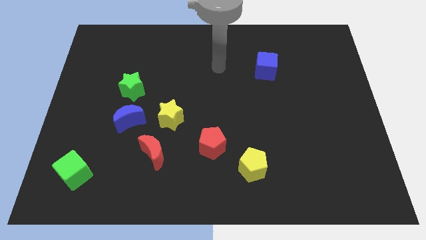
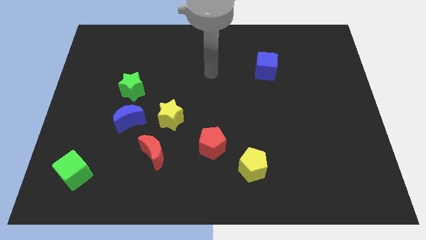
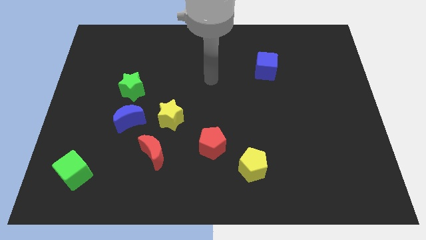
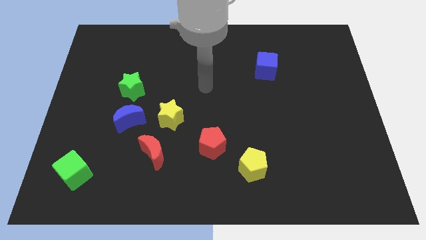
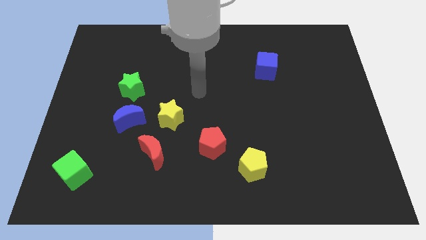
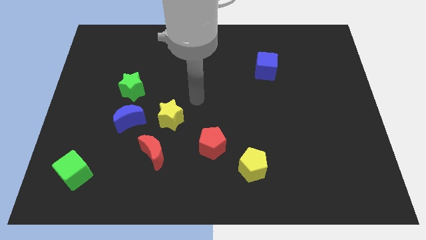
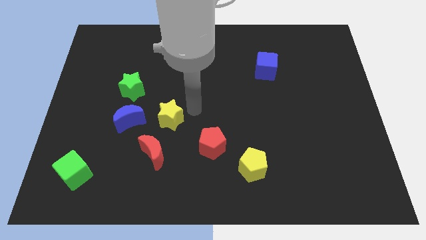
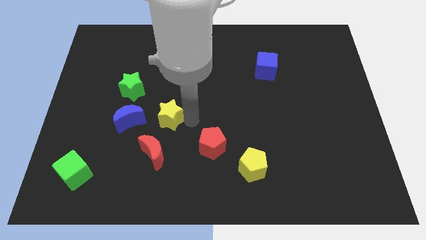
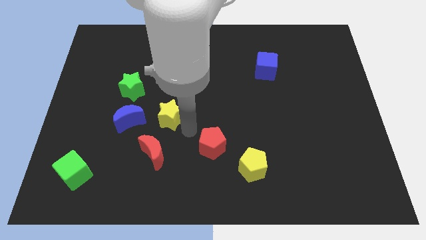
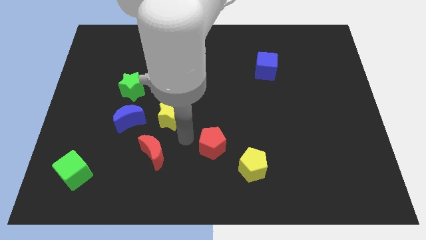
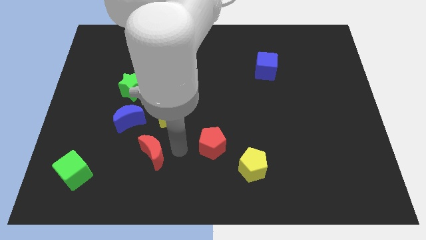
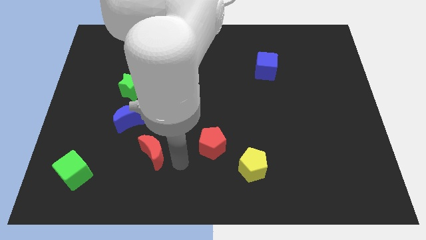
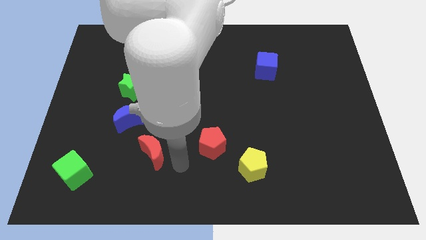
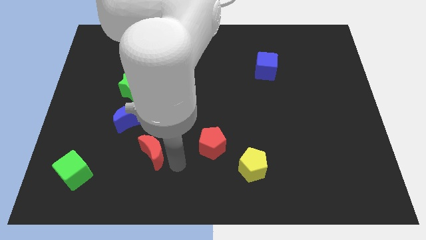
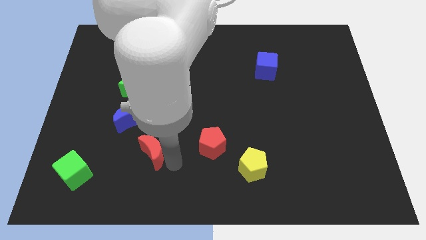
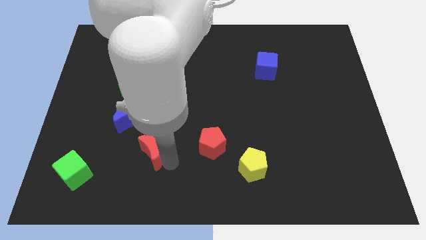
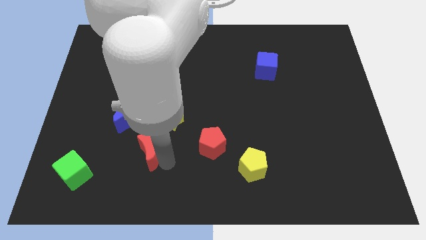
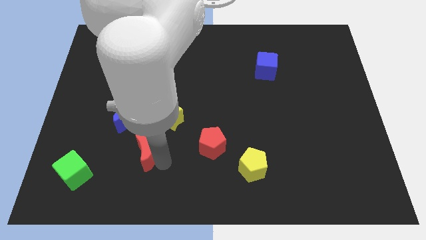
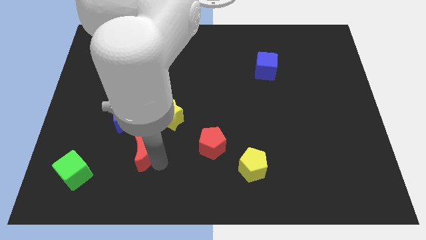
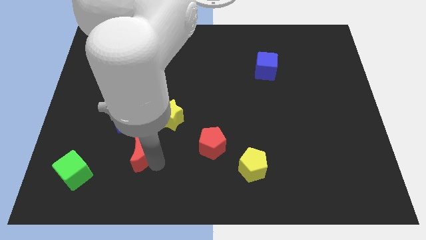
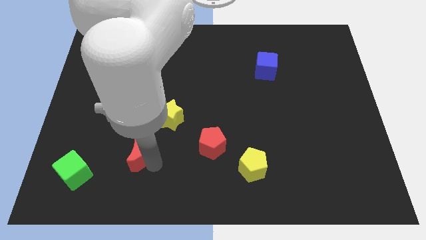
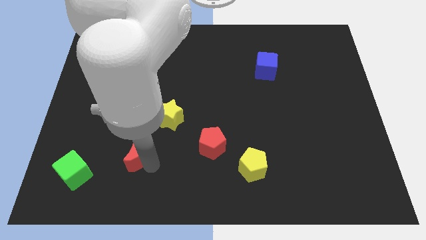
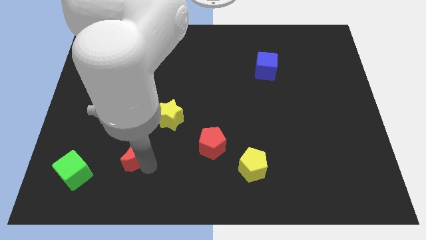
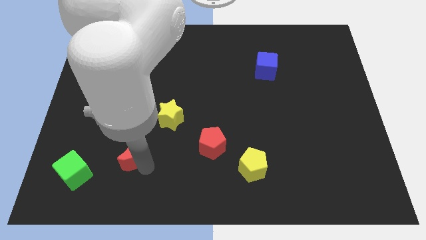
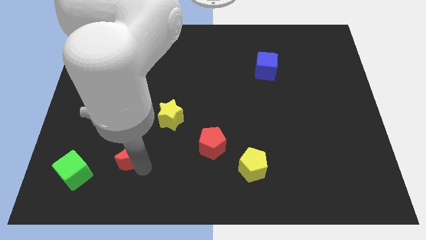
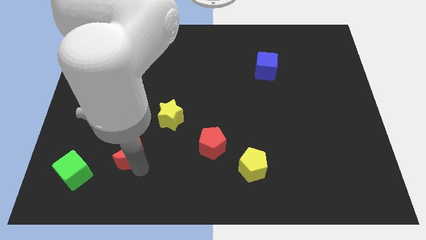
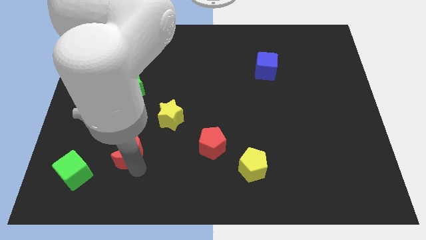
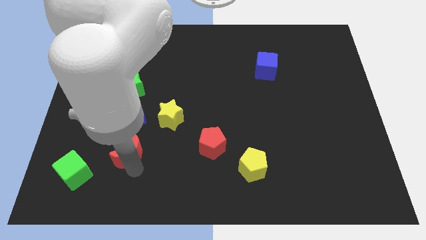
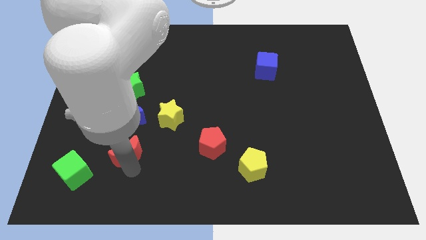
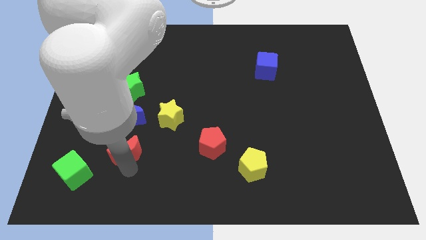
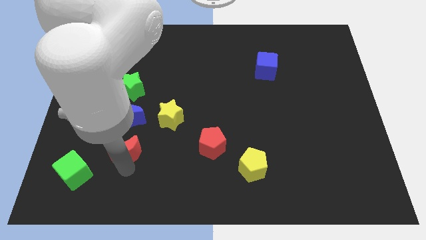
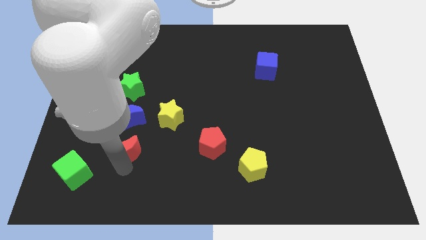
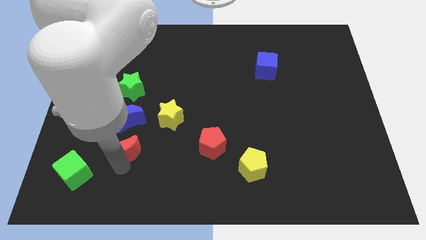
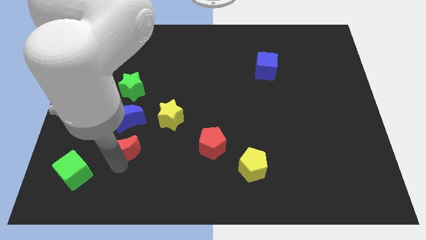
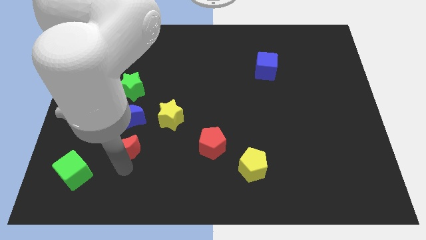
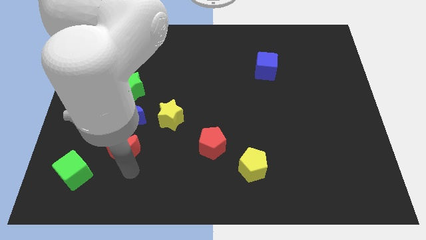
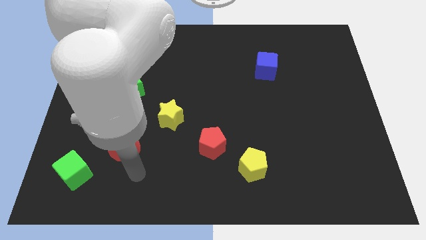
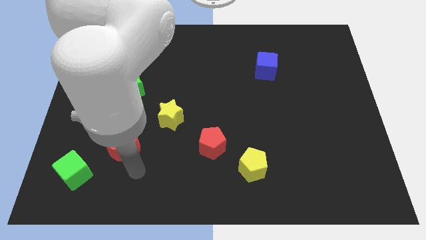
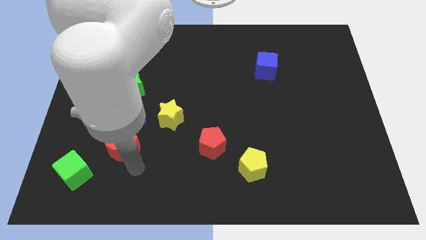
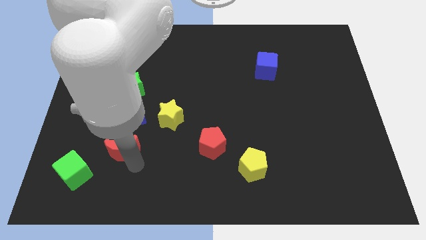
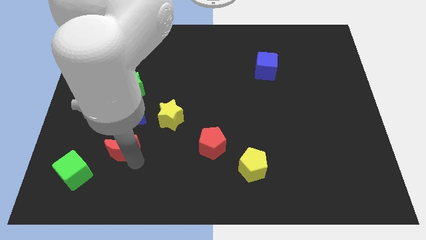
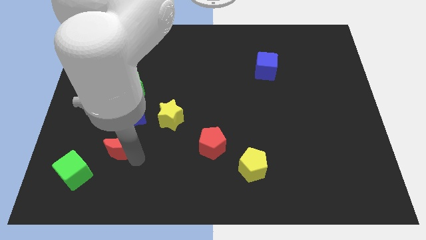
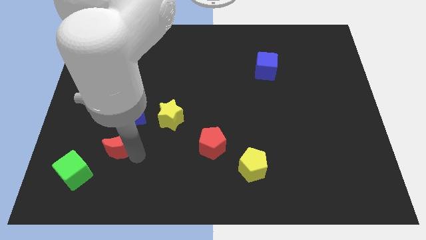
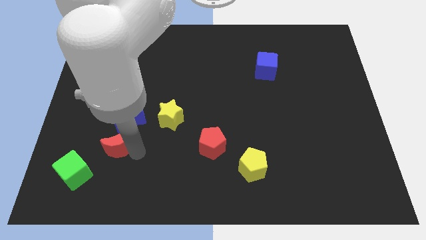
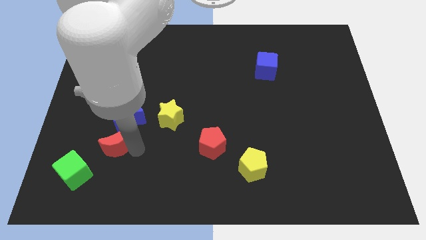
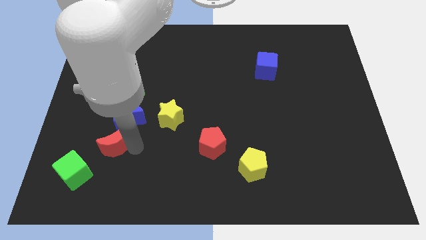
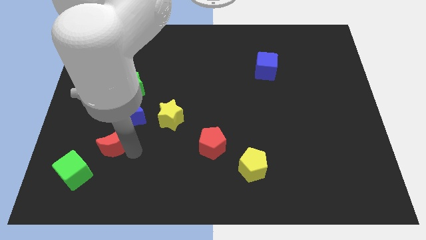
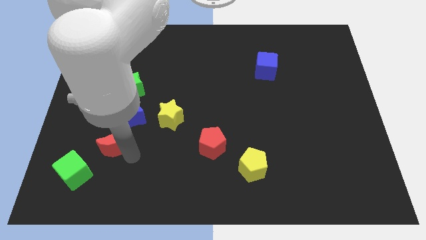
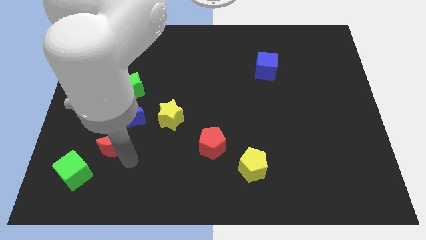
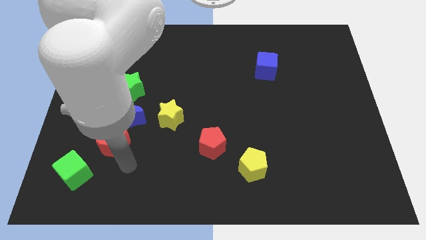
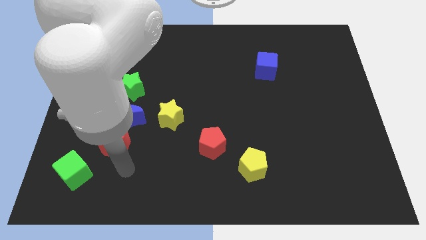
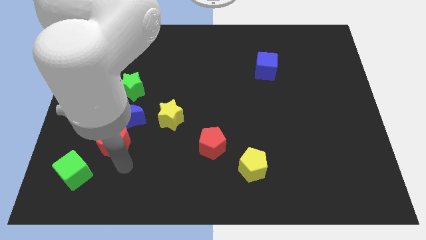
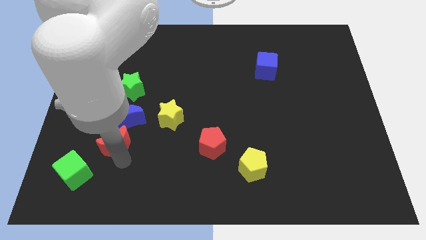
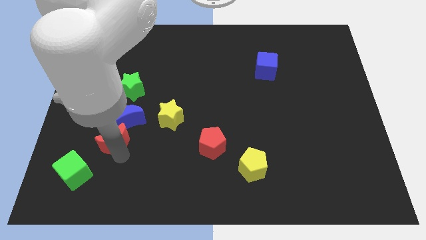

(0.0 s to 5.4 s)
slightly move the red moon diagonally upwards and to the left

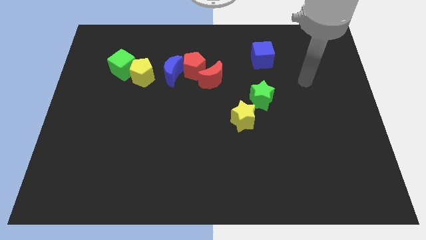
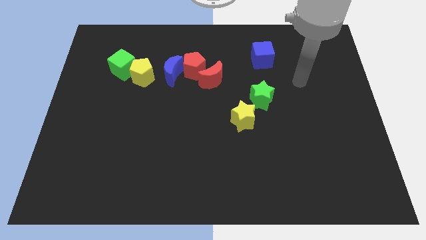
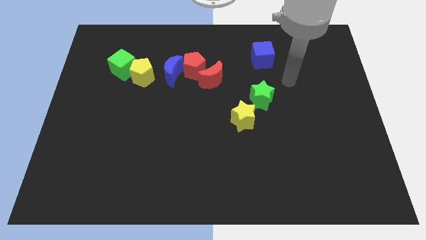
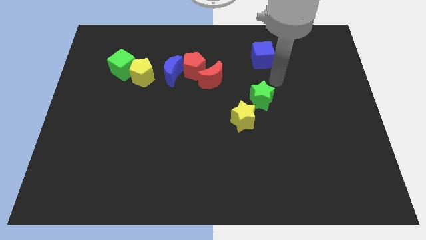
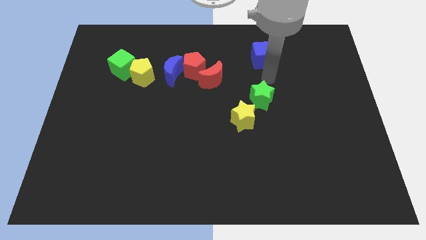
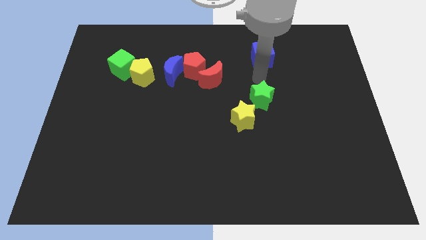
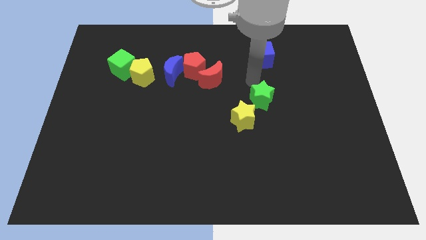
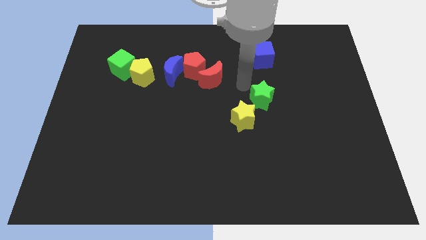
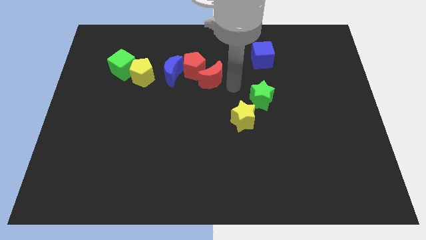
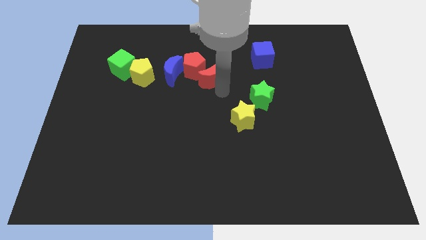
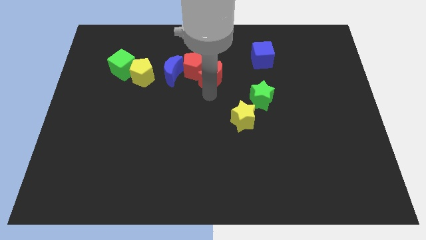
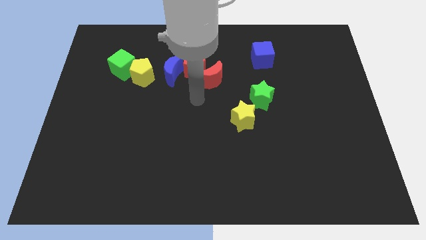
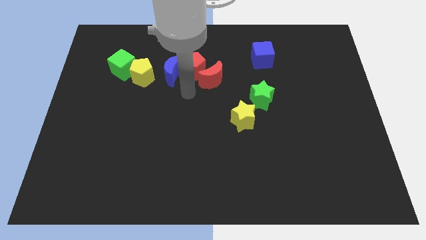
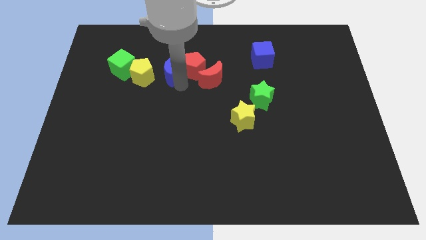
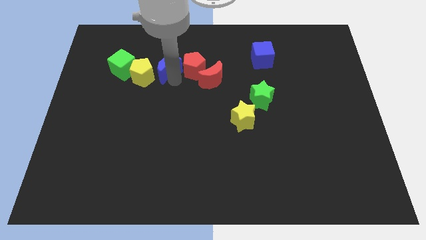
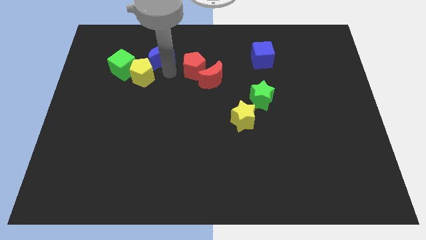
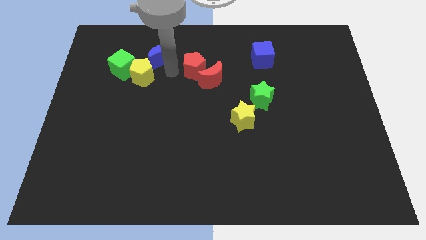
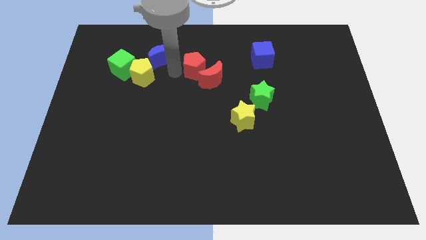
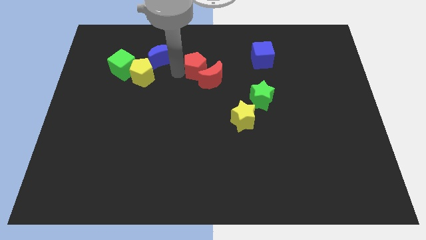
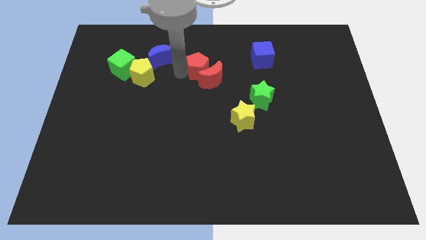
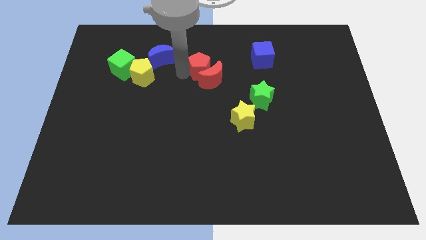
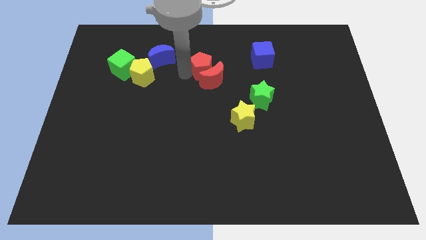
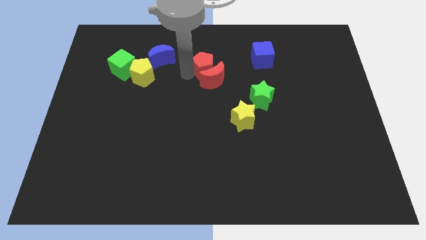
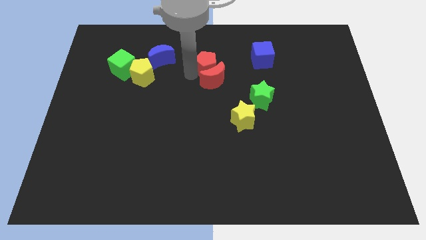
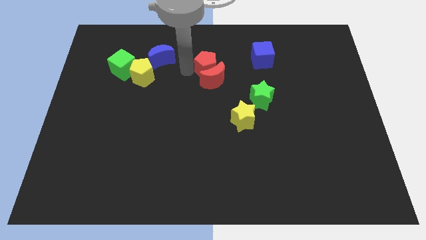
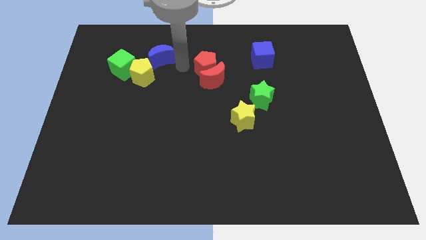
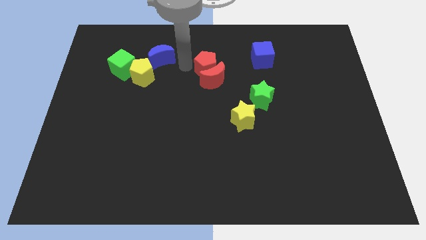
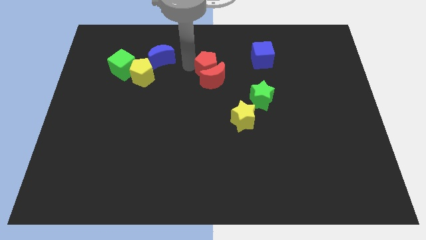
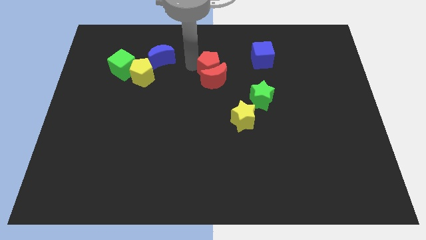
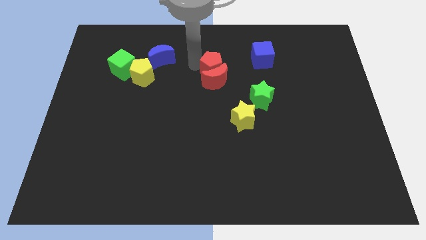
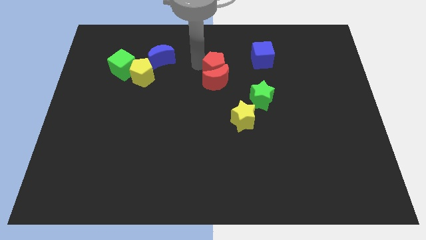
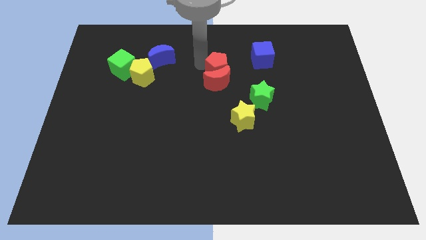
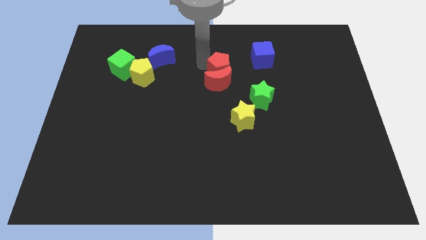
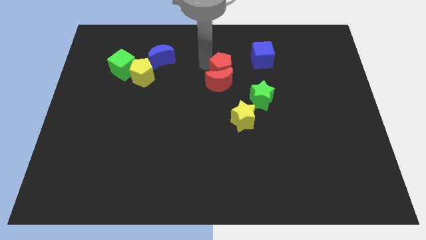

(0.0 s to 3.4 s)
slide the red pentagon to the right somewhat
